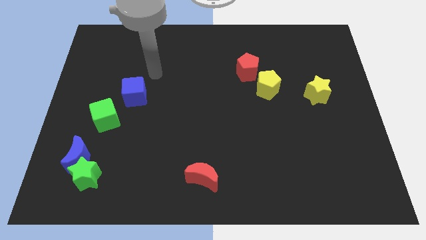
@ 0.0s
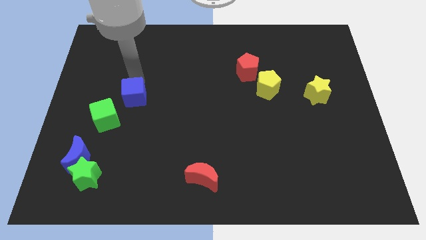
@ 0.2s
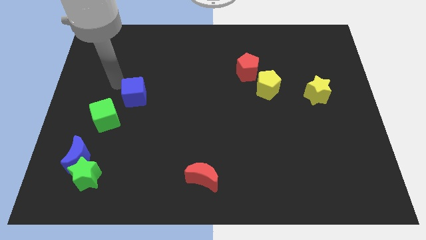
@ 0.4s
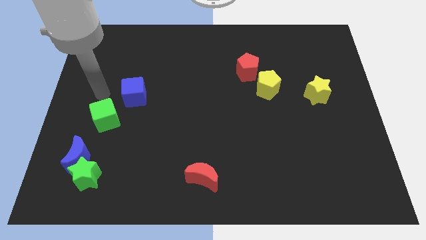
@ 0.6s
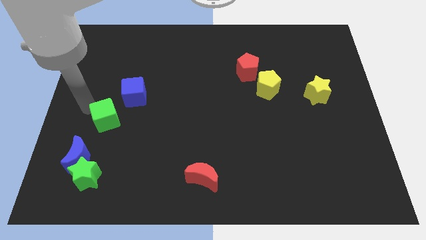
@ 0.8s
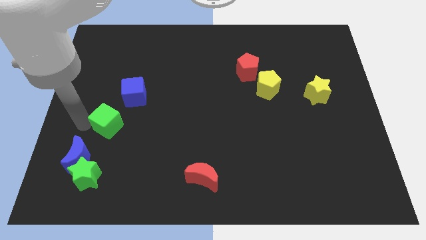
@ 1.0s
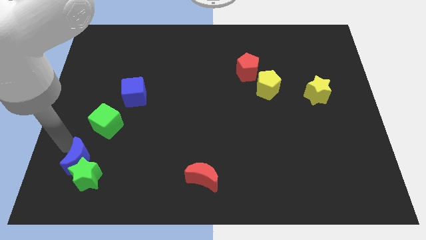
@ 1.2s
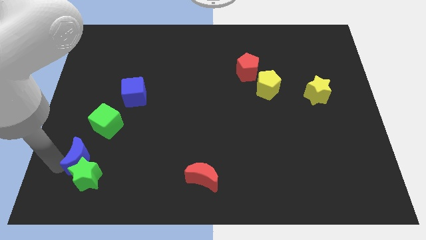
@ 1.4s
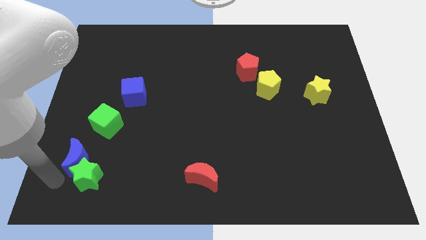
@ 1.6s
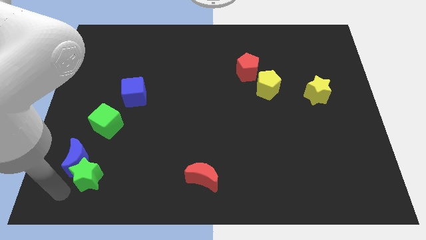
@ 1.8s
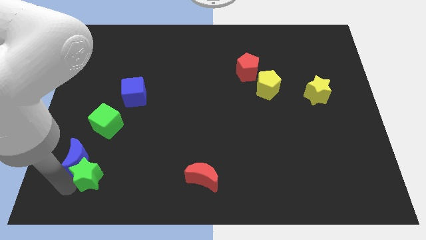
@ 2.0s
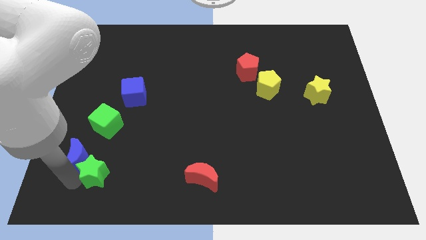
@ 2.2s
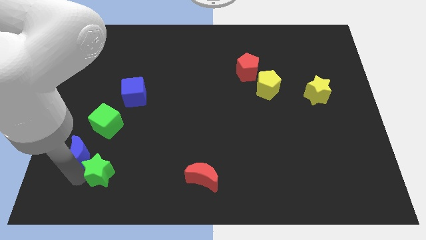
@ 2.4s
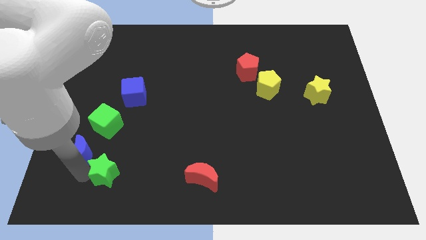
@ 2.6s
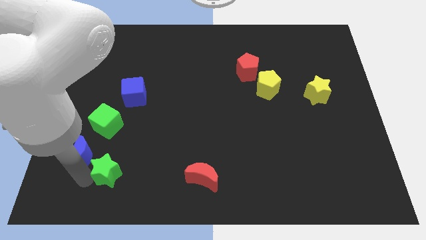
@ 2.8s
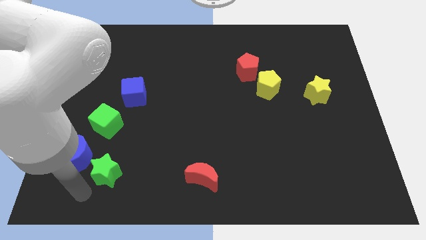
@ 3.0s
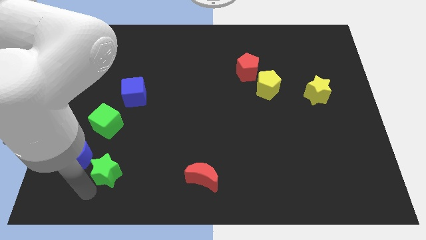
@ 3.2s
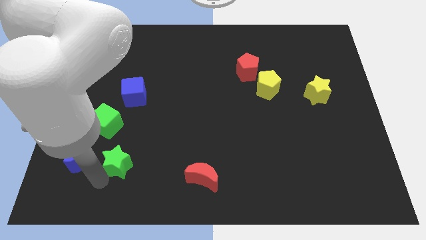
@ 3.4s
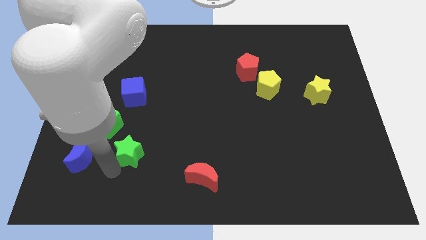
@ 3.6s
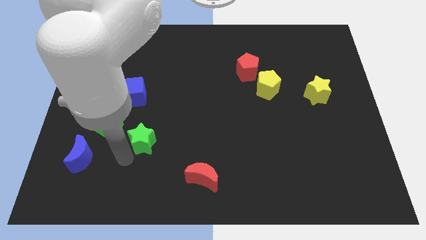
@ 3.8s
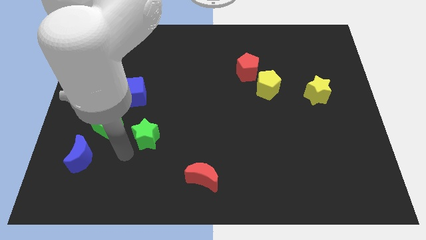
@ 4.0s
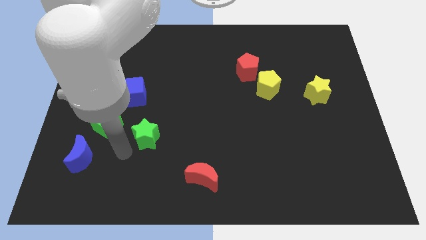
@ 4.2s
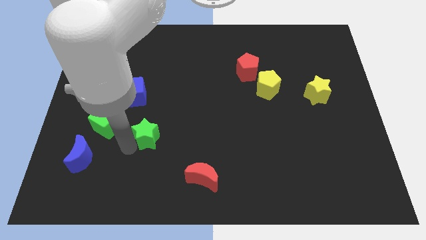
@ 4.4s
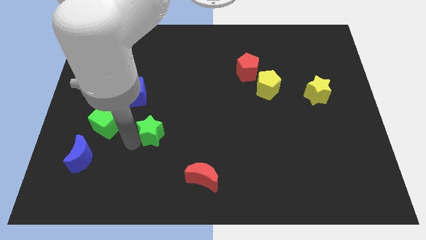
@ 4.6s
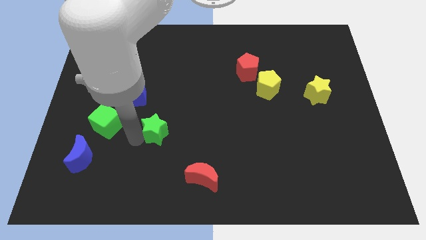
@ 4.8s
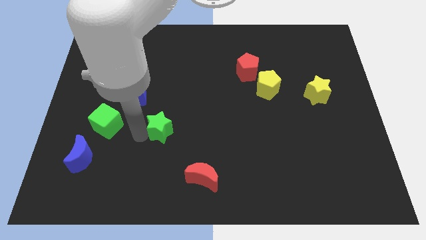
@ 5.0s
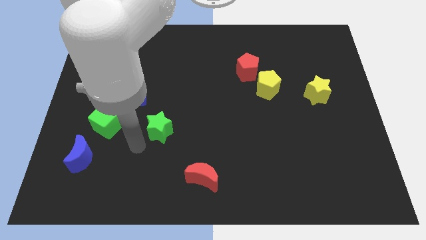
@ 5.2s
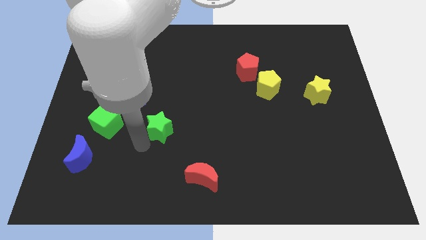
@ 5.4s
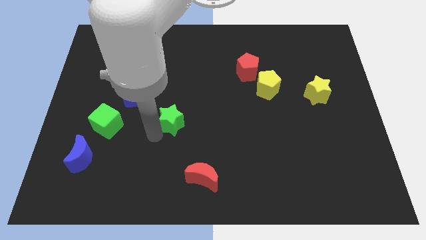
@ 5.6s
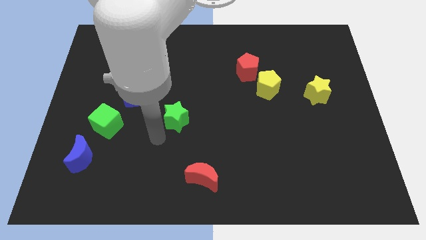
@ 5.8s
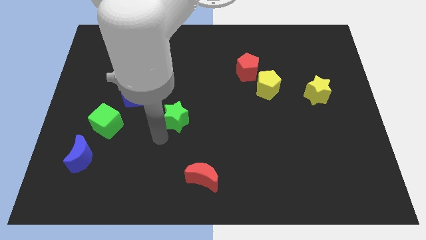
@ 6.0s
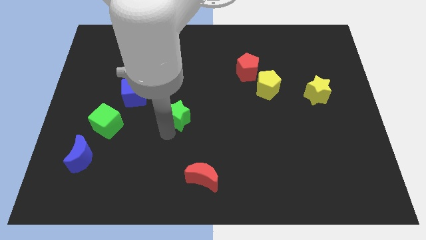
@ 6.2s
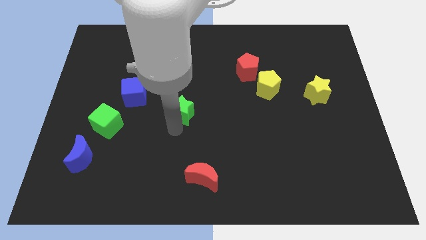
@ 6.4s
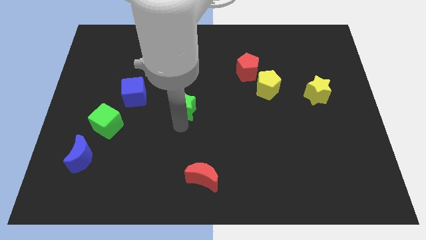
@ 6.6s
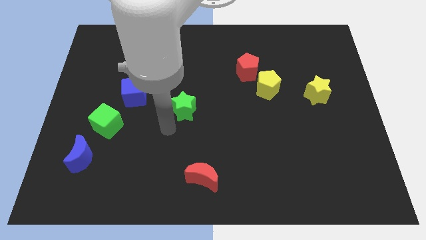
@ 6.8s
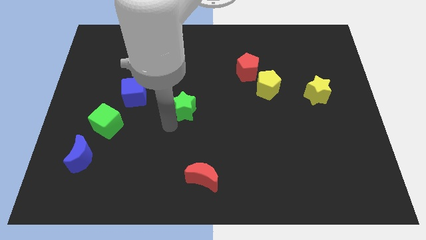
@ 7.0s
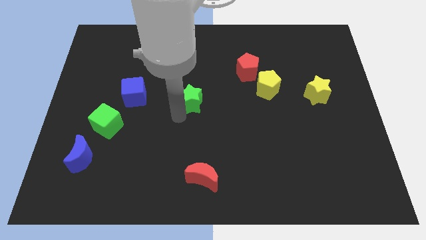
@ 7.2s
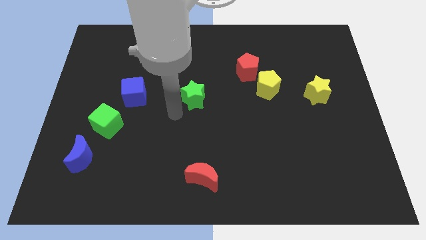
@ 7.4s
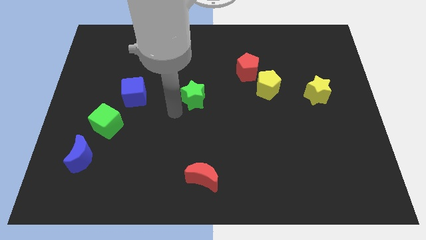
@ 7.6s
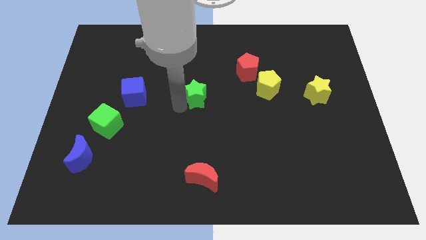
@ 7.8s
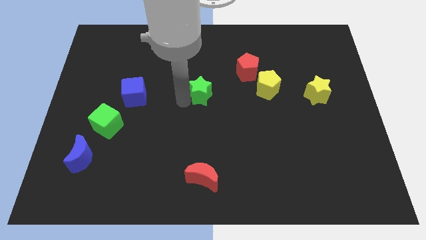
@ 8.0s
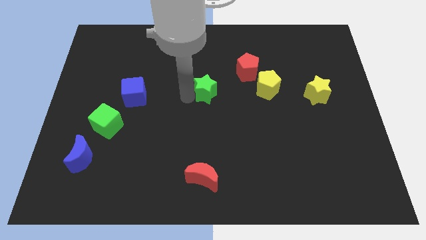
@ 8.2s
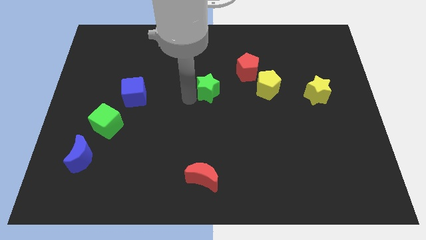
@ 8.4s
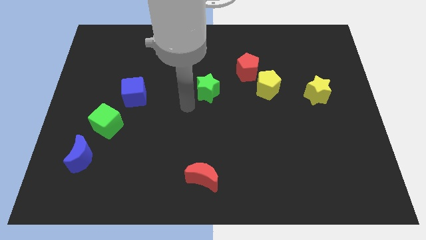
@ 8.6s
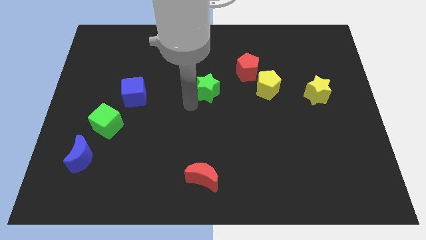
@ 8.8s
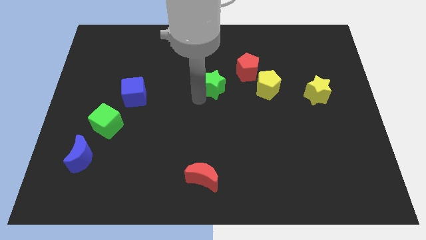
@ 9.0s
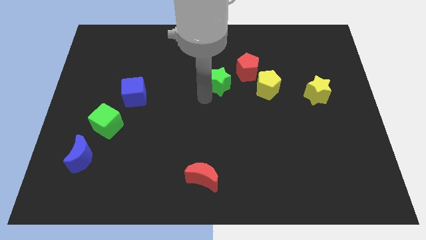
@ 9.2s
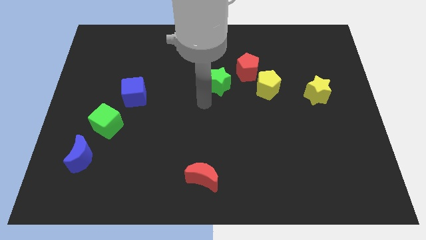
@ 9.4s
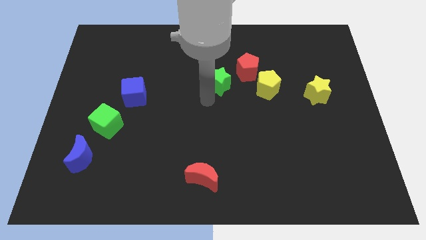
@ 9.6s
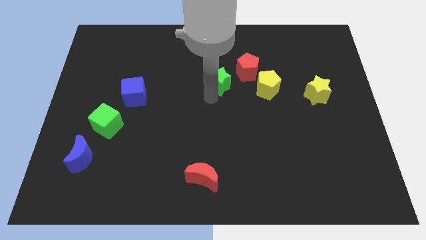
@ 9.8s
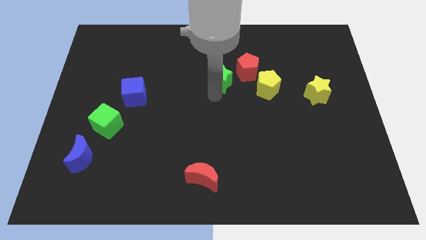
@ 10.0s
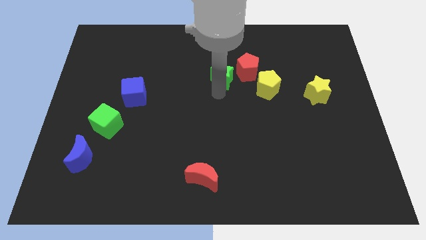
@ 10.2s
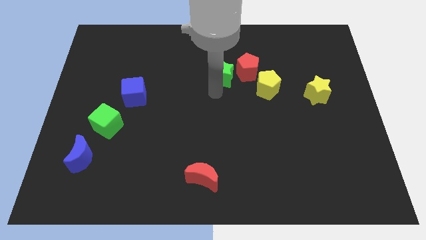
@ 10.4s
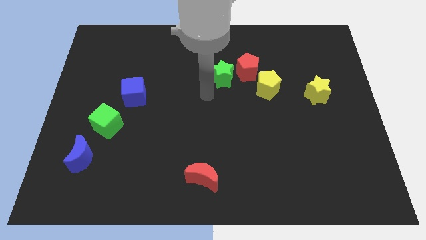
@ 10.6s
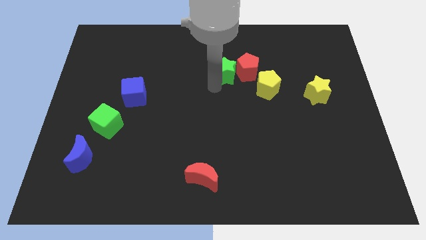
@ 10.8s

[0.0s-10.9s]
put the green star to the top left side of the yellow pentagon

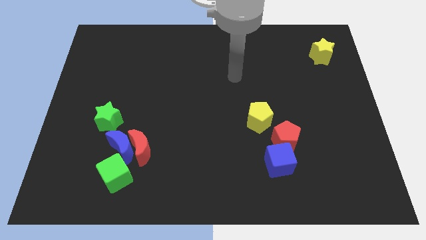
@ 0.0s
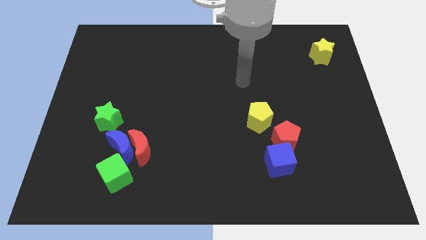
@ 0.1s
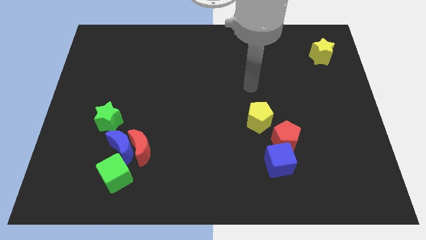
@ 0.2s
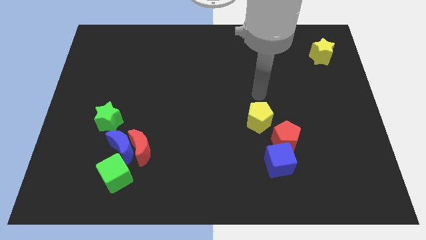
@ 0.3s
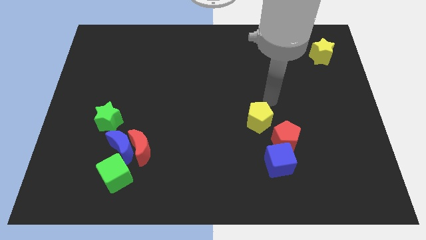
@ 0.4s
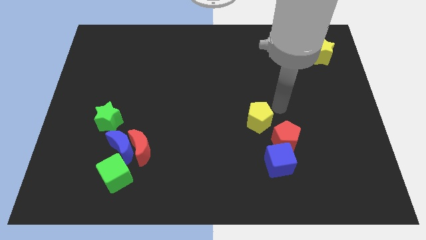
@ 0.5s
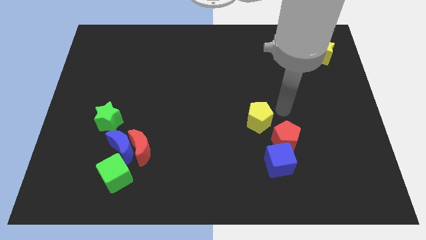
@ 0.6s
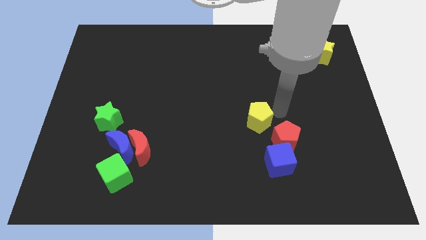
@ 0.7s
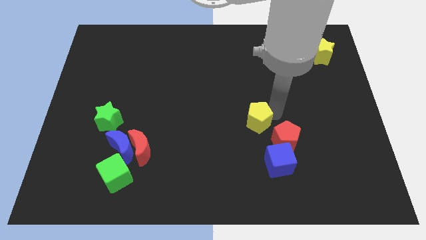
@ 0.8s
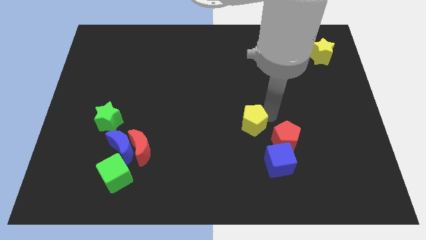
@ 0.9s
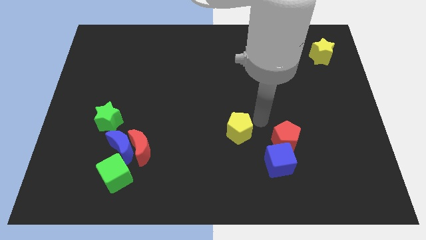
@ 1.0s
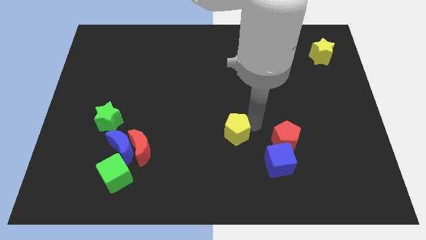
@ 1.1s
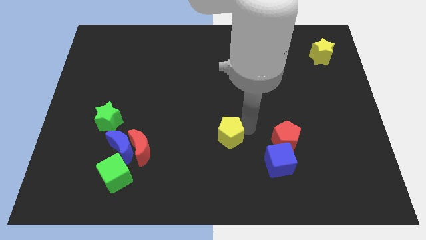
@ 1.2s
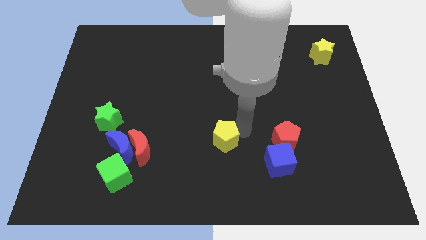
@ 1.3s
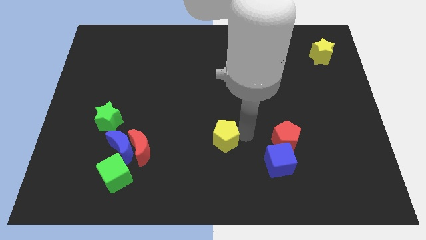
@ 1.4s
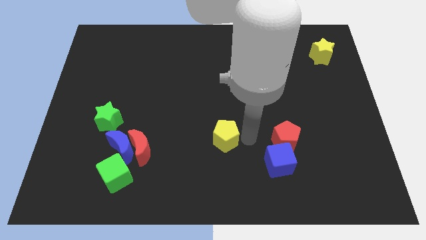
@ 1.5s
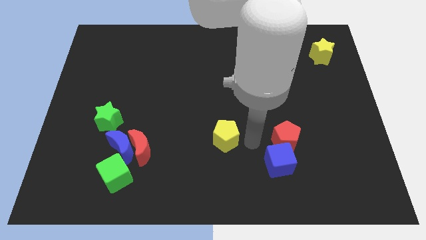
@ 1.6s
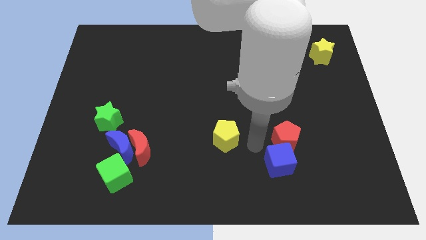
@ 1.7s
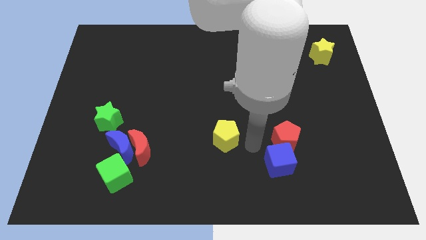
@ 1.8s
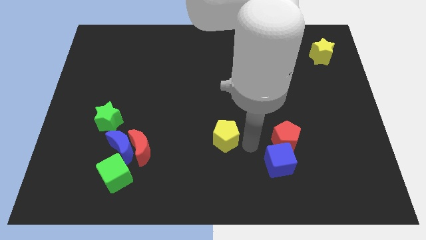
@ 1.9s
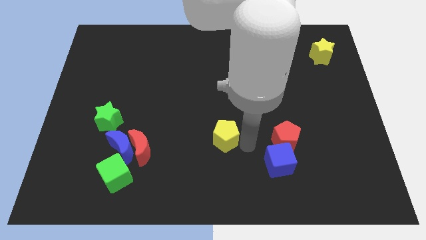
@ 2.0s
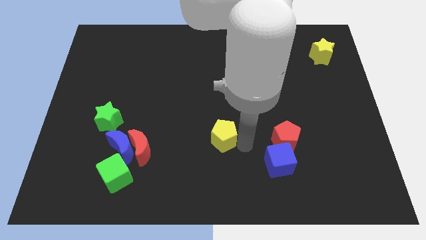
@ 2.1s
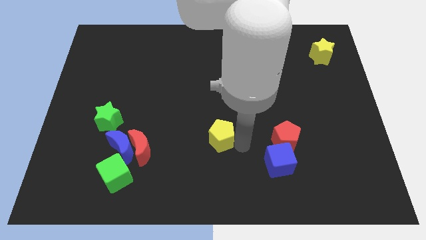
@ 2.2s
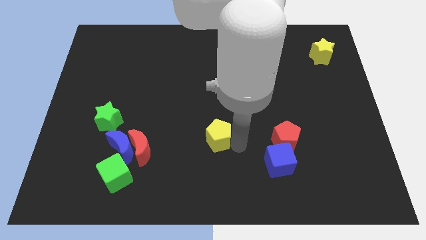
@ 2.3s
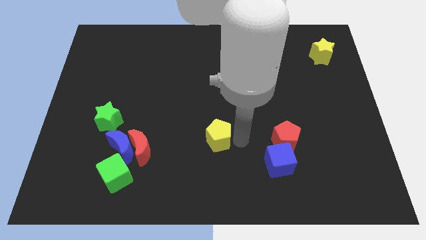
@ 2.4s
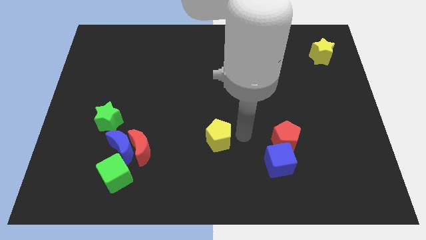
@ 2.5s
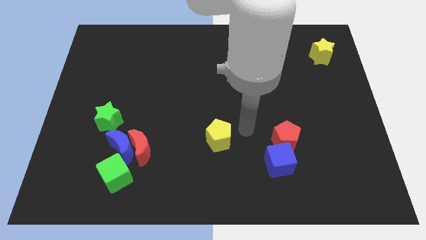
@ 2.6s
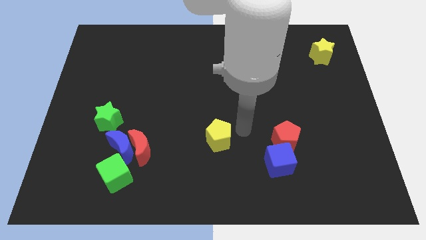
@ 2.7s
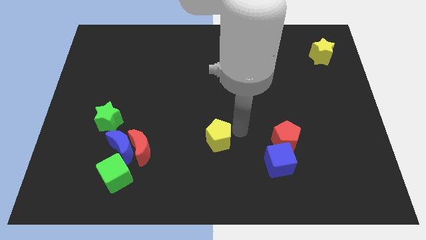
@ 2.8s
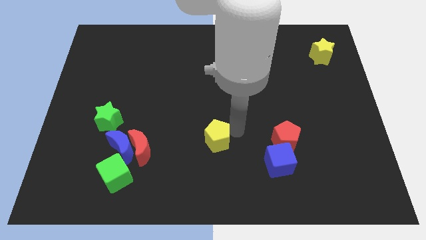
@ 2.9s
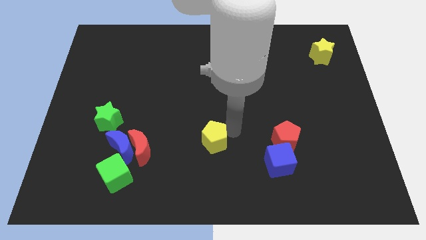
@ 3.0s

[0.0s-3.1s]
put the yellow pentagon to the right side of the red moon
